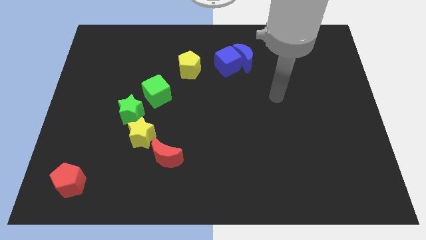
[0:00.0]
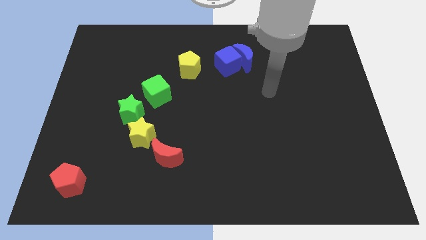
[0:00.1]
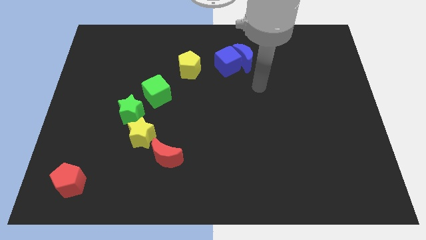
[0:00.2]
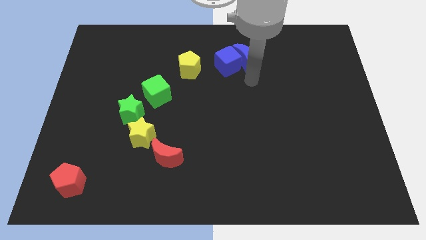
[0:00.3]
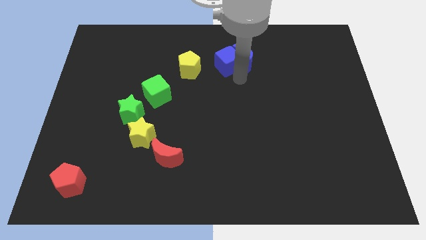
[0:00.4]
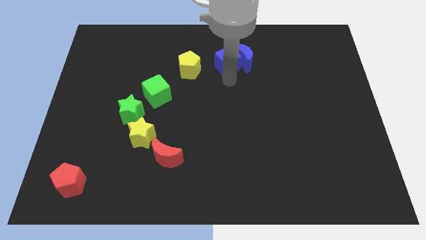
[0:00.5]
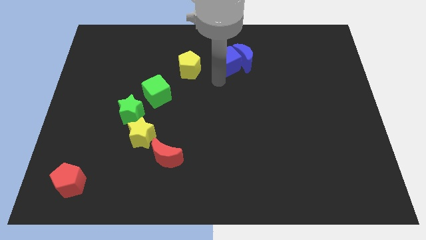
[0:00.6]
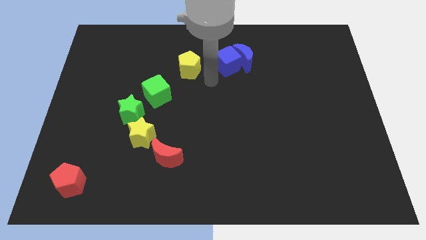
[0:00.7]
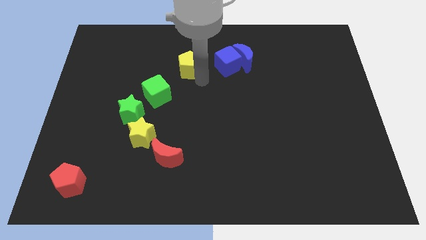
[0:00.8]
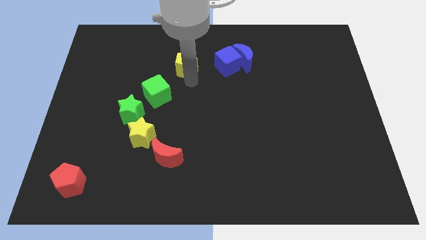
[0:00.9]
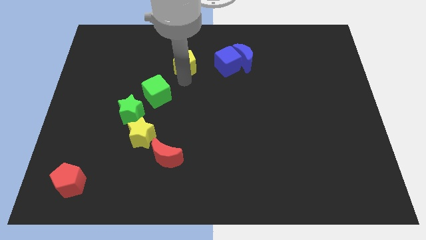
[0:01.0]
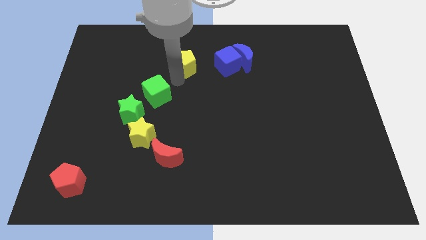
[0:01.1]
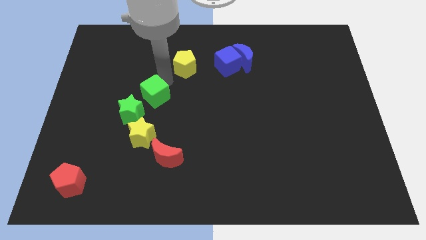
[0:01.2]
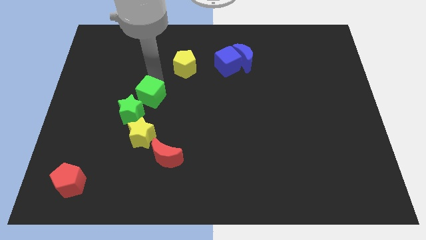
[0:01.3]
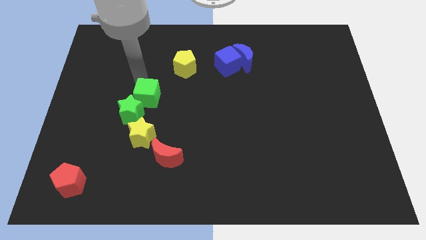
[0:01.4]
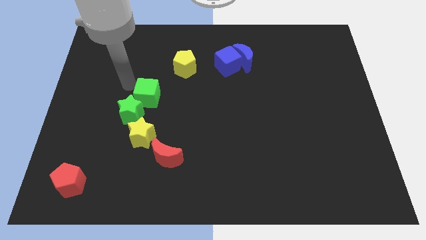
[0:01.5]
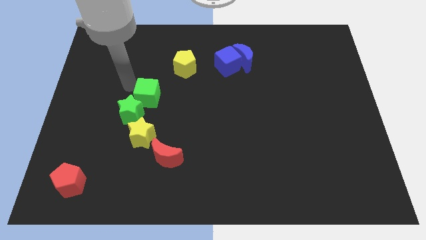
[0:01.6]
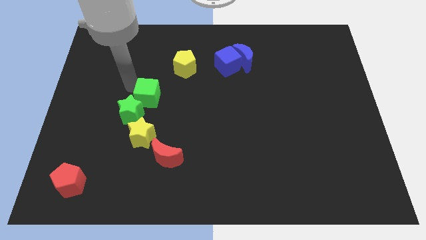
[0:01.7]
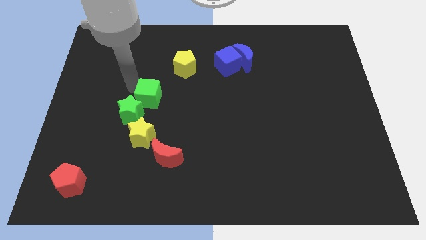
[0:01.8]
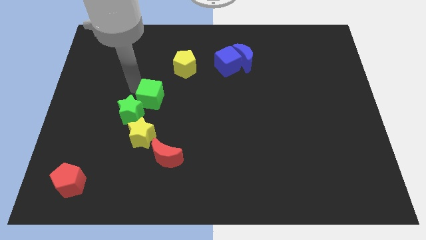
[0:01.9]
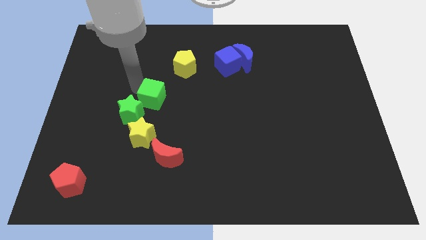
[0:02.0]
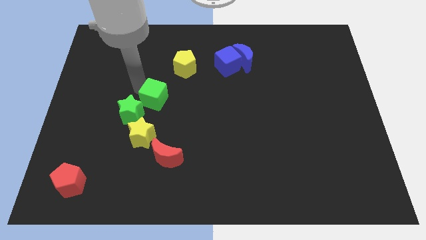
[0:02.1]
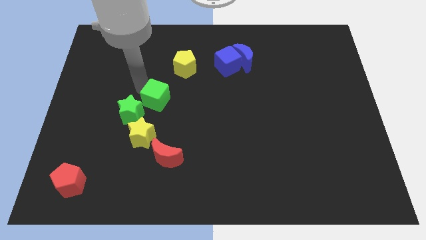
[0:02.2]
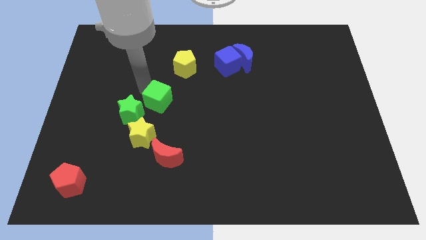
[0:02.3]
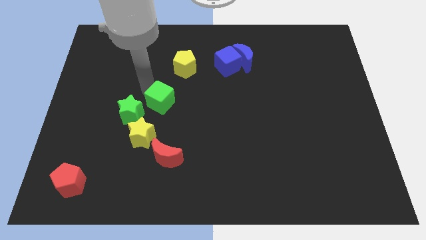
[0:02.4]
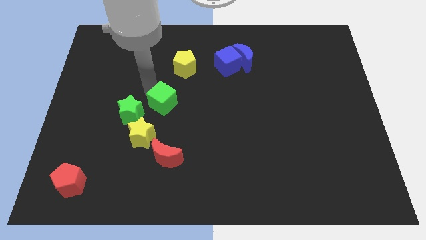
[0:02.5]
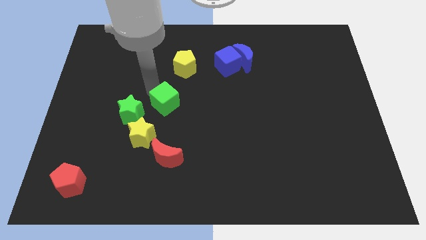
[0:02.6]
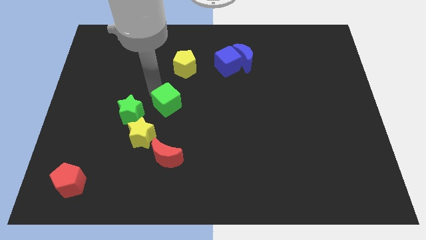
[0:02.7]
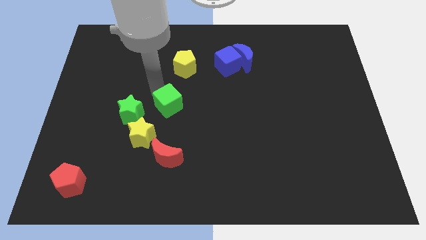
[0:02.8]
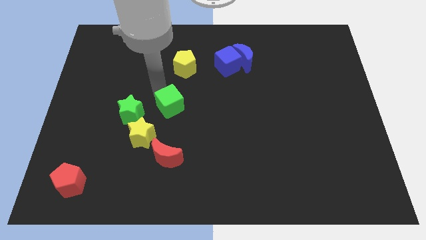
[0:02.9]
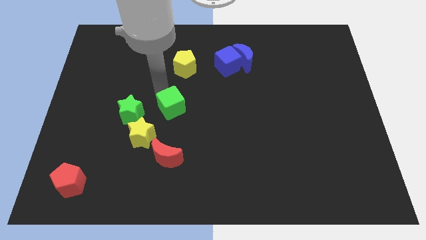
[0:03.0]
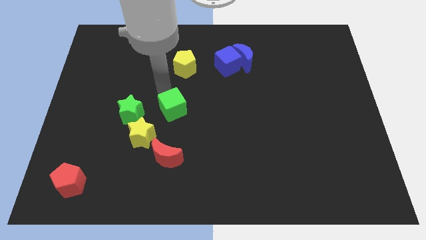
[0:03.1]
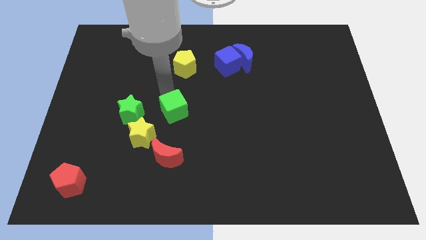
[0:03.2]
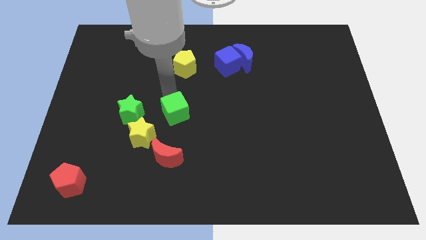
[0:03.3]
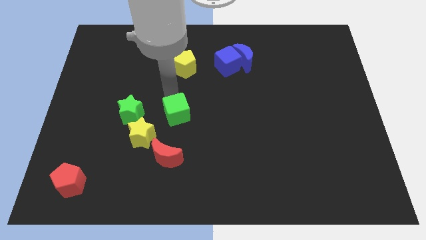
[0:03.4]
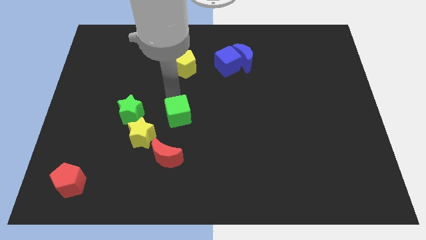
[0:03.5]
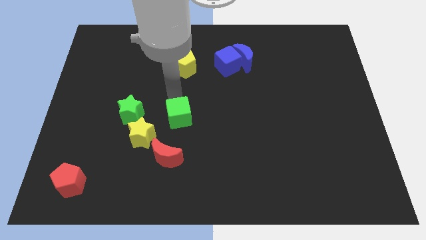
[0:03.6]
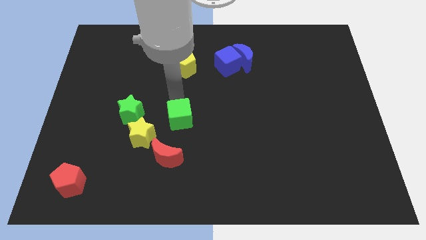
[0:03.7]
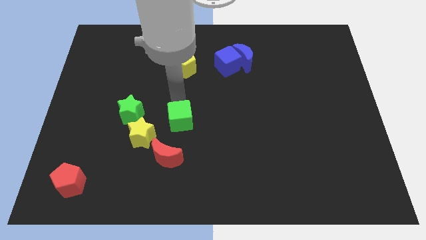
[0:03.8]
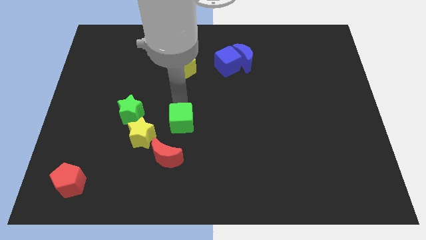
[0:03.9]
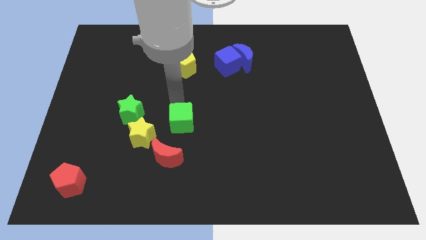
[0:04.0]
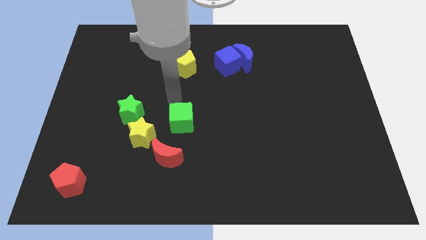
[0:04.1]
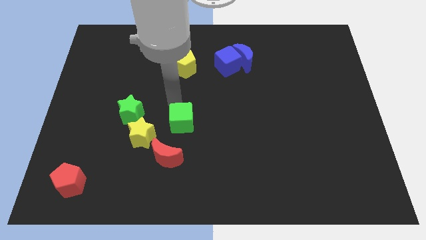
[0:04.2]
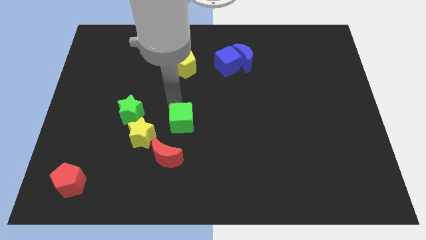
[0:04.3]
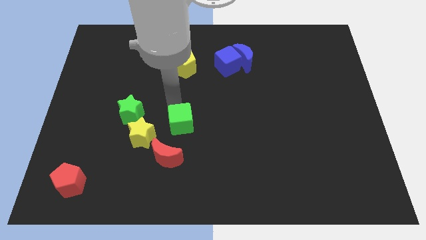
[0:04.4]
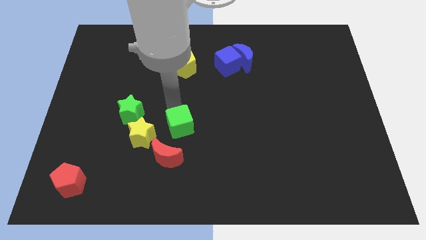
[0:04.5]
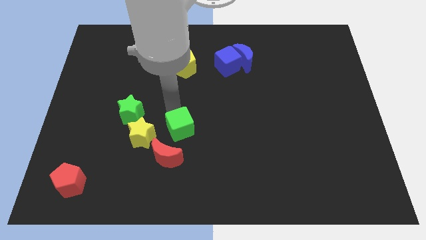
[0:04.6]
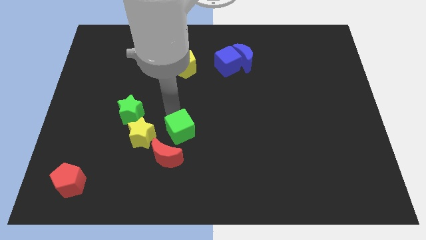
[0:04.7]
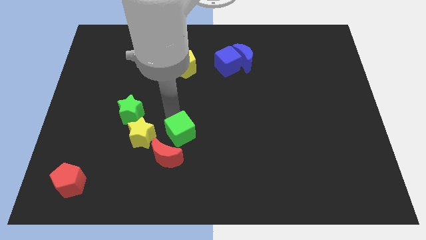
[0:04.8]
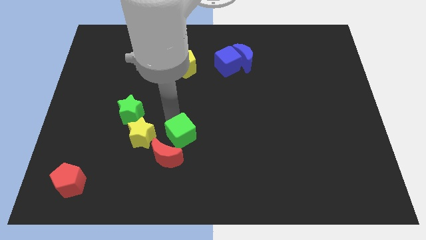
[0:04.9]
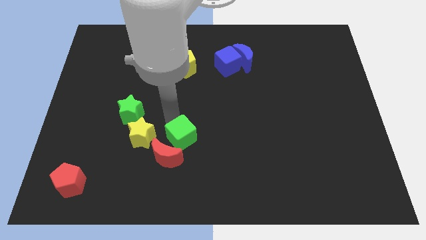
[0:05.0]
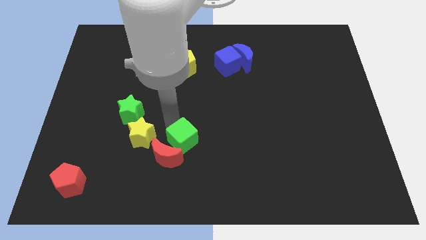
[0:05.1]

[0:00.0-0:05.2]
move the green cube right of the red moon

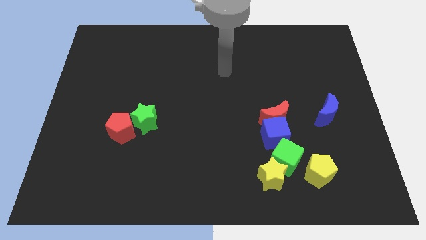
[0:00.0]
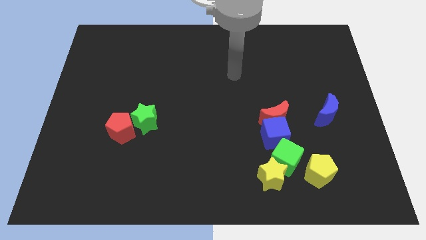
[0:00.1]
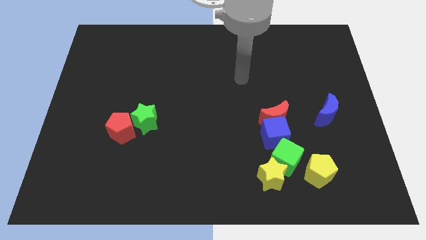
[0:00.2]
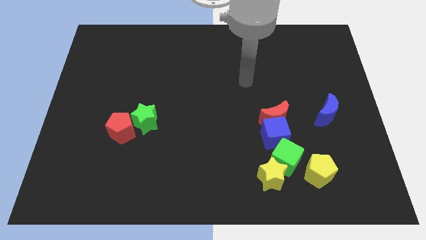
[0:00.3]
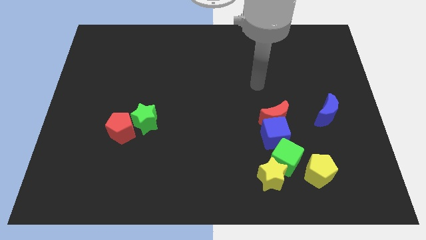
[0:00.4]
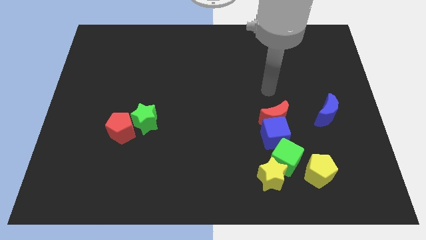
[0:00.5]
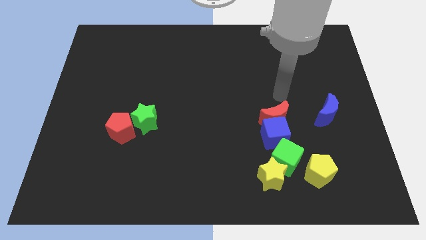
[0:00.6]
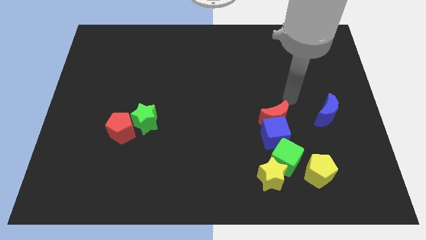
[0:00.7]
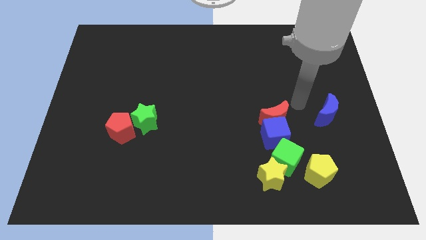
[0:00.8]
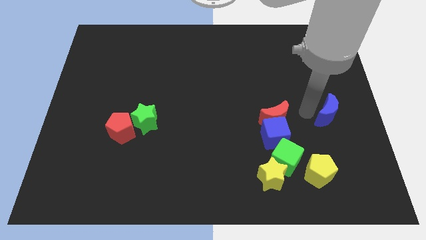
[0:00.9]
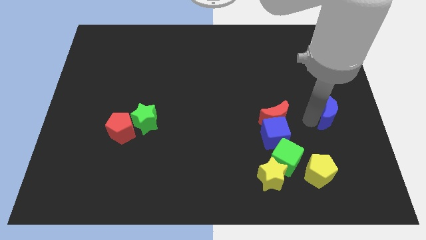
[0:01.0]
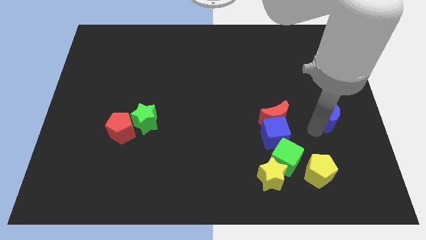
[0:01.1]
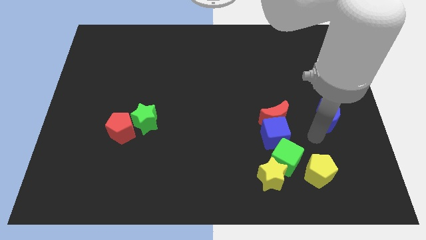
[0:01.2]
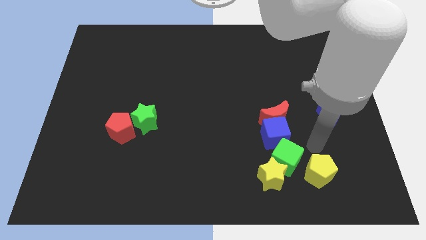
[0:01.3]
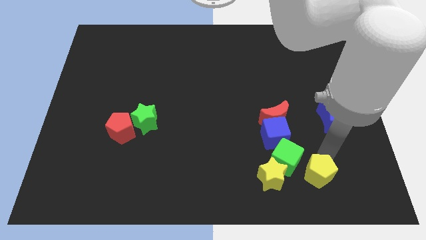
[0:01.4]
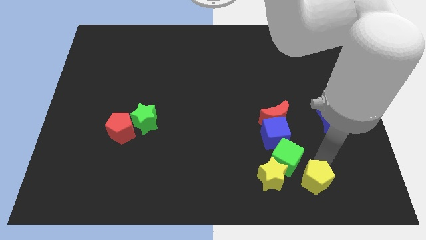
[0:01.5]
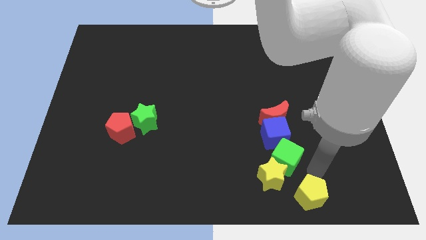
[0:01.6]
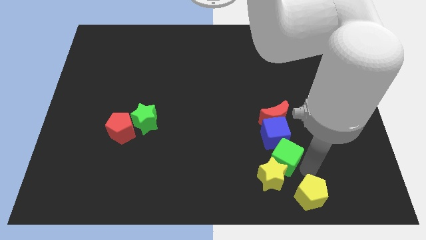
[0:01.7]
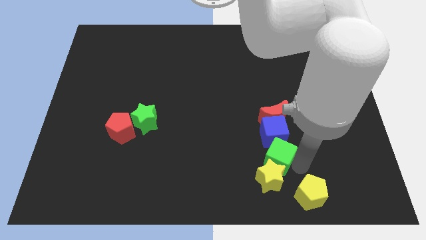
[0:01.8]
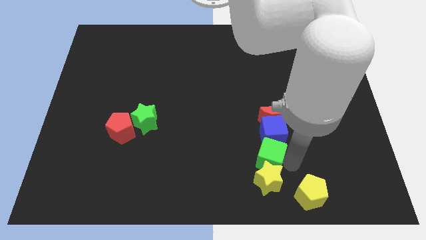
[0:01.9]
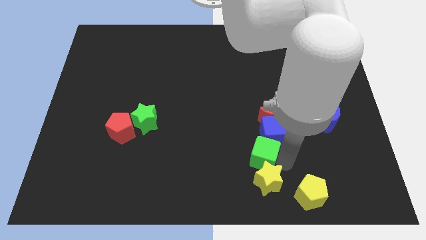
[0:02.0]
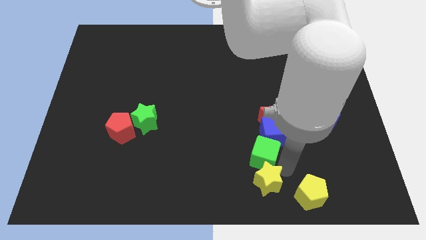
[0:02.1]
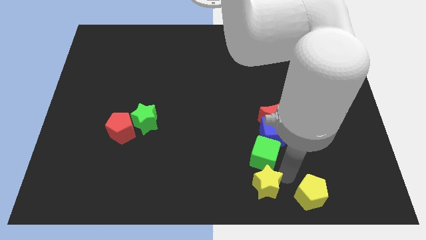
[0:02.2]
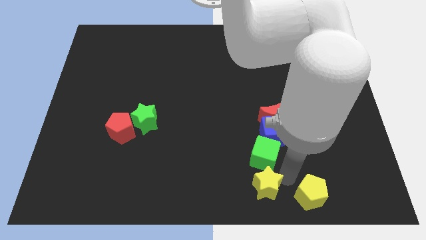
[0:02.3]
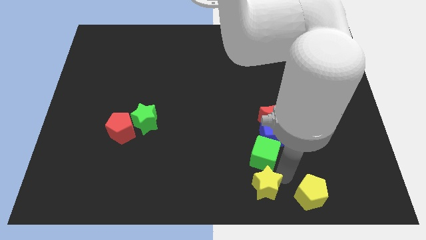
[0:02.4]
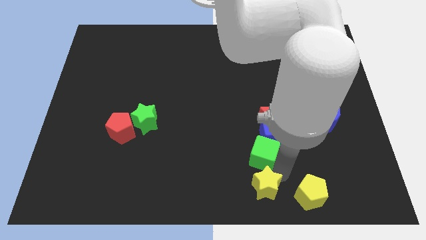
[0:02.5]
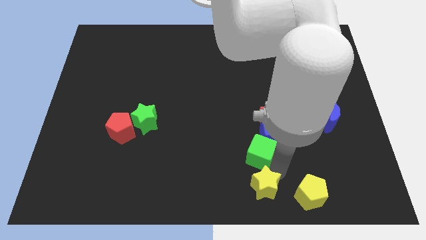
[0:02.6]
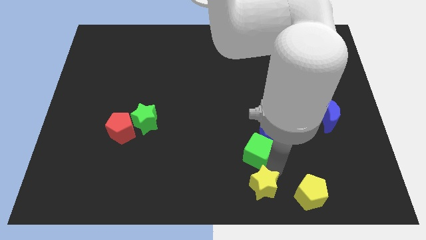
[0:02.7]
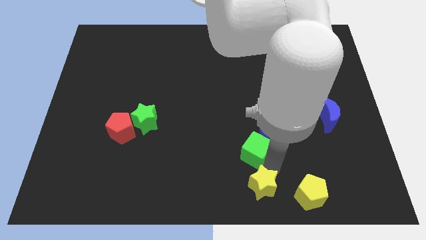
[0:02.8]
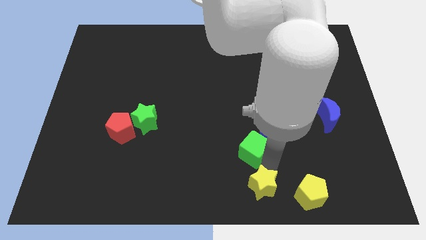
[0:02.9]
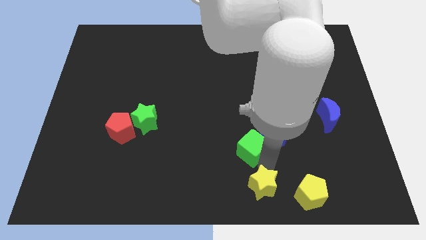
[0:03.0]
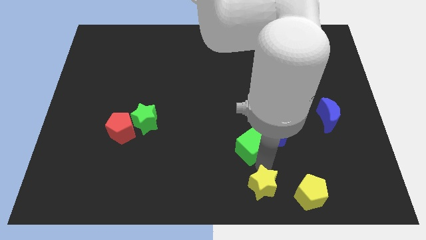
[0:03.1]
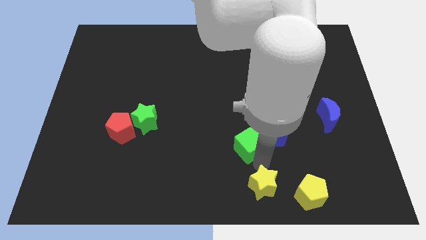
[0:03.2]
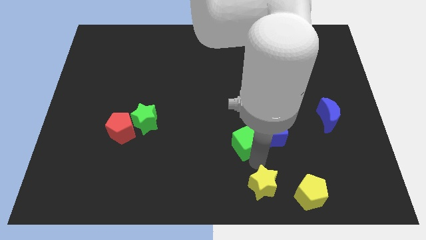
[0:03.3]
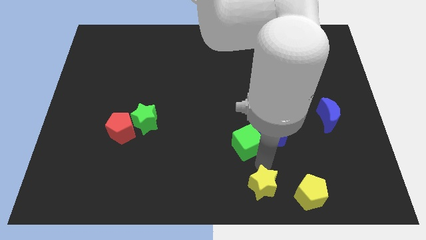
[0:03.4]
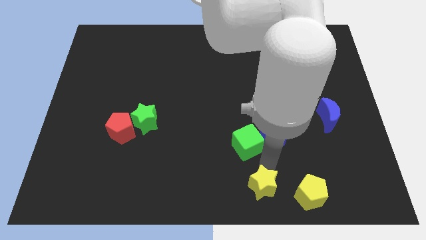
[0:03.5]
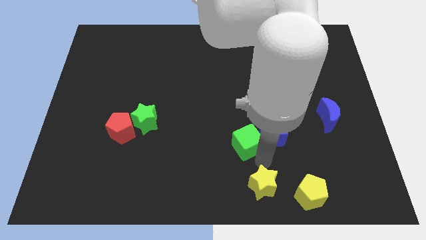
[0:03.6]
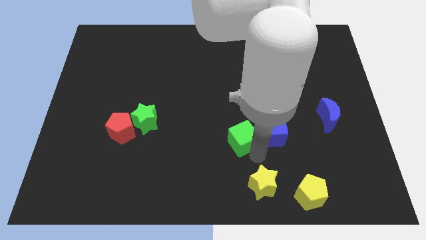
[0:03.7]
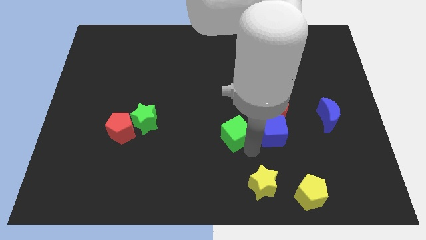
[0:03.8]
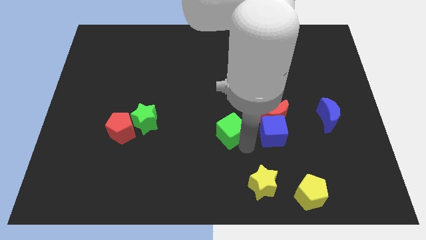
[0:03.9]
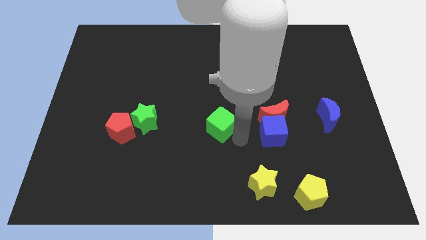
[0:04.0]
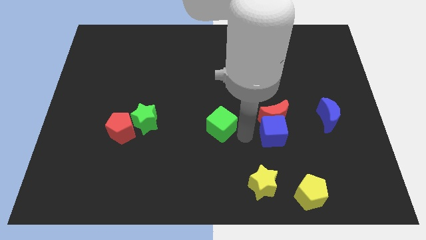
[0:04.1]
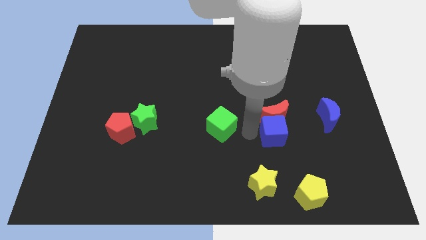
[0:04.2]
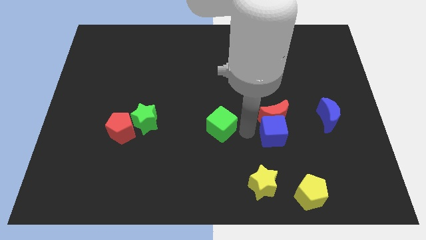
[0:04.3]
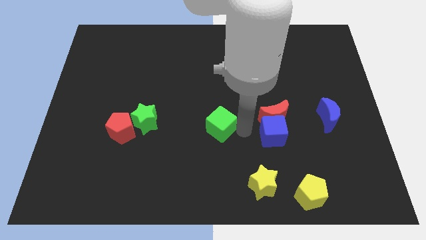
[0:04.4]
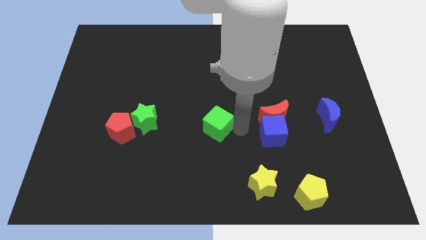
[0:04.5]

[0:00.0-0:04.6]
move the green cube right of the green star
